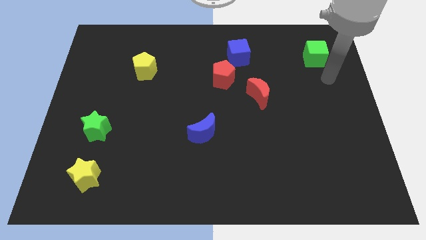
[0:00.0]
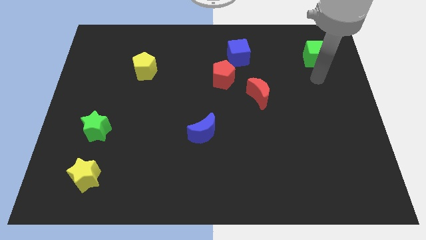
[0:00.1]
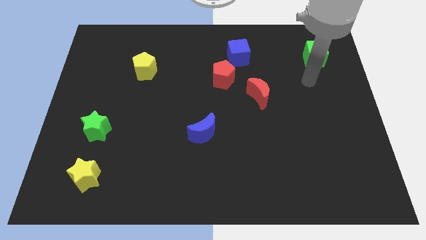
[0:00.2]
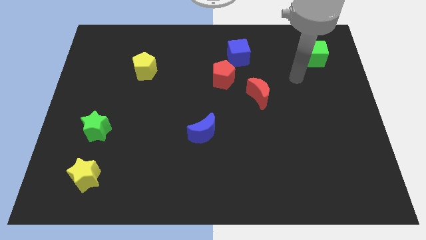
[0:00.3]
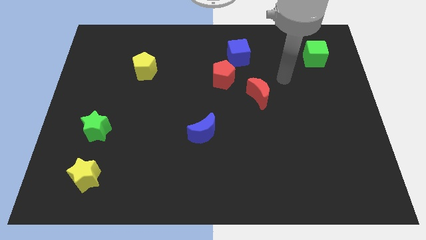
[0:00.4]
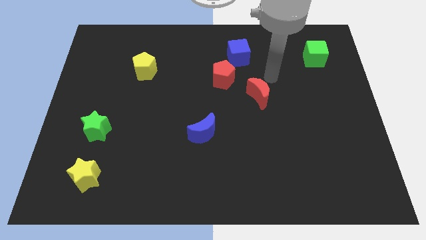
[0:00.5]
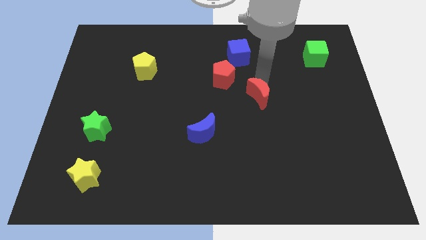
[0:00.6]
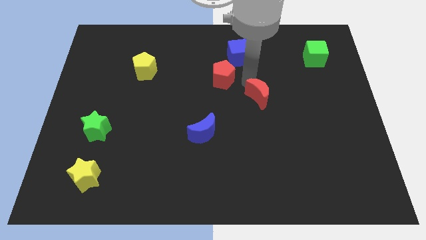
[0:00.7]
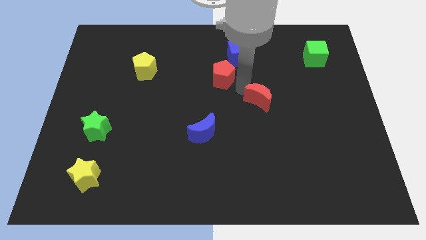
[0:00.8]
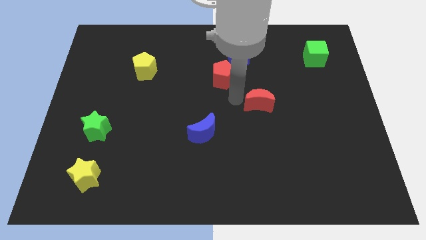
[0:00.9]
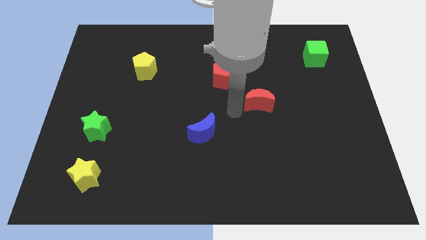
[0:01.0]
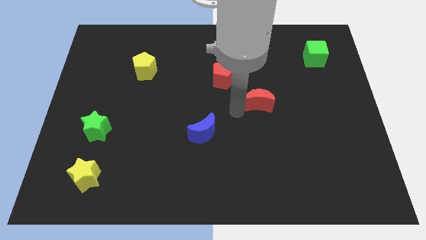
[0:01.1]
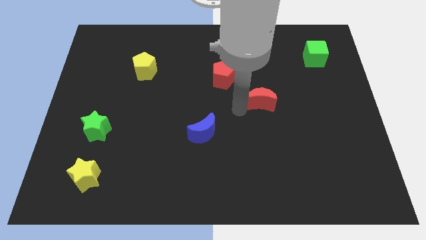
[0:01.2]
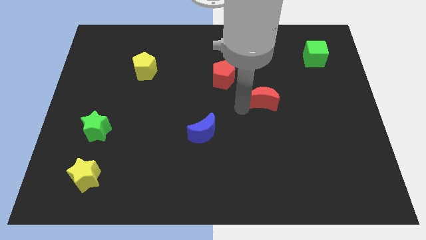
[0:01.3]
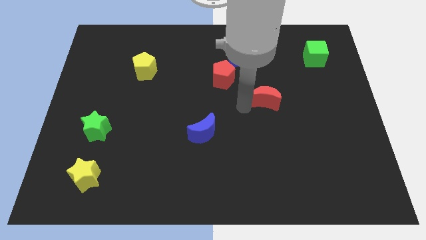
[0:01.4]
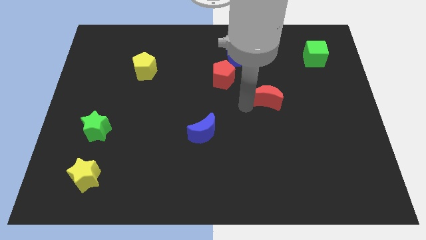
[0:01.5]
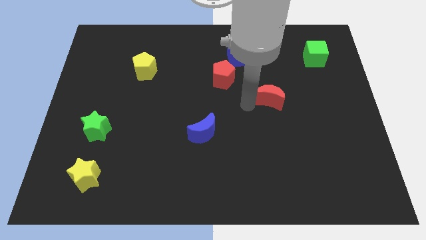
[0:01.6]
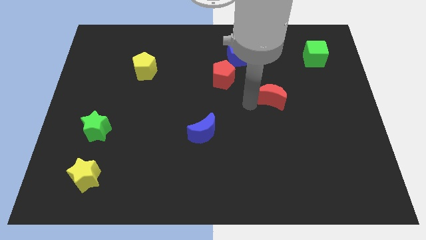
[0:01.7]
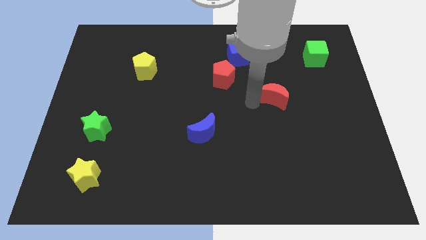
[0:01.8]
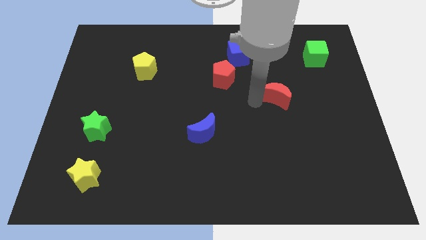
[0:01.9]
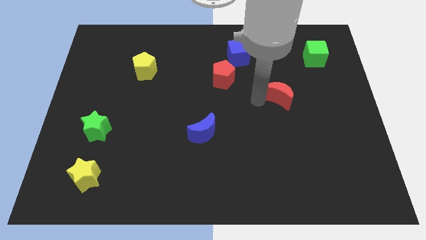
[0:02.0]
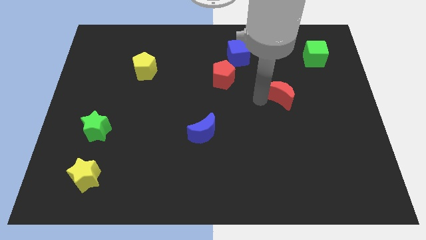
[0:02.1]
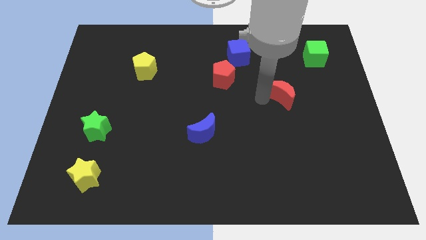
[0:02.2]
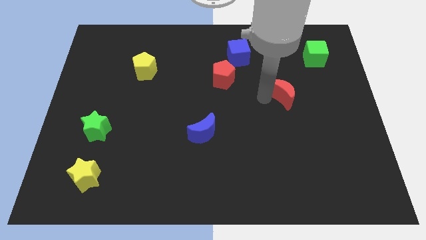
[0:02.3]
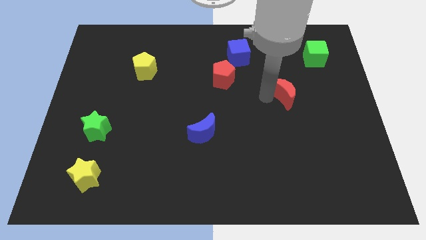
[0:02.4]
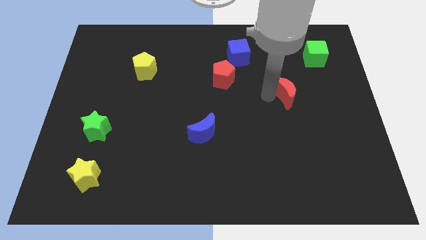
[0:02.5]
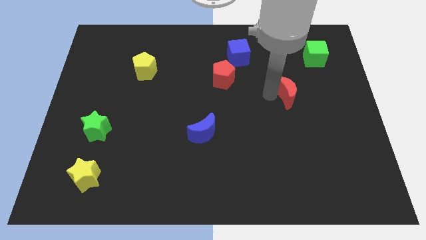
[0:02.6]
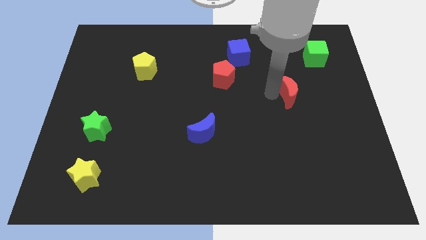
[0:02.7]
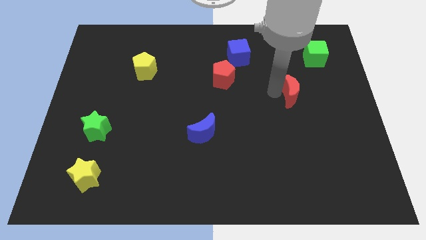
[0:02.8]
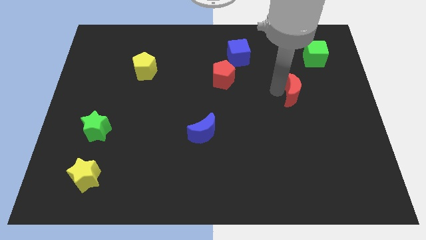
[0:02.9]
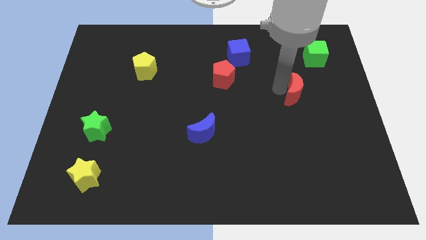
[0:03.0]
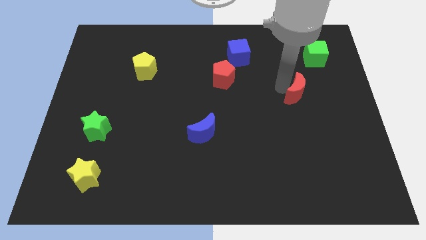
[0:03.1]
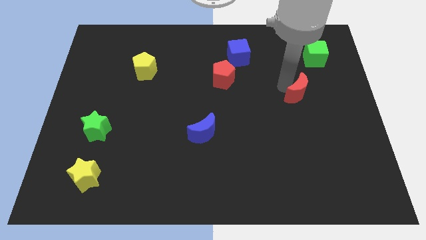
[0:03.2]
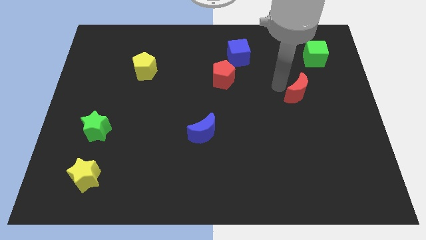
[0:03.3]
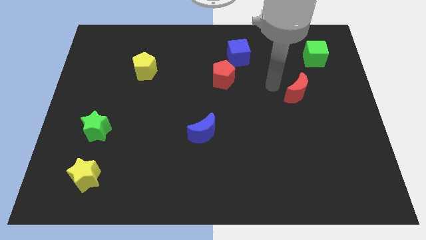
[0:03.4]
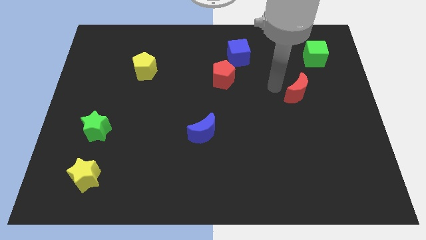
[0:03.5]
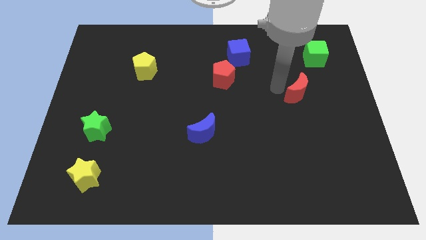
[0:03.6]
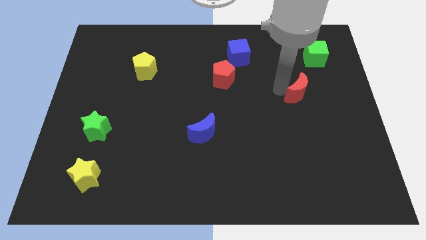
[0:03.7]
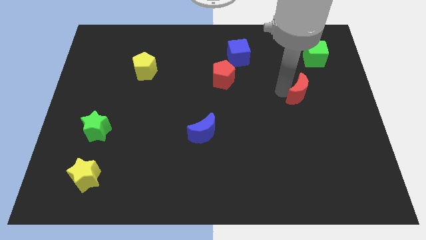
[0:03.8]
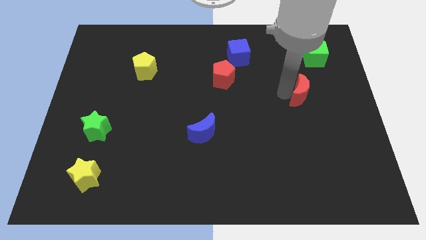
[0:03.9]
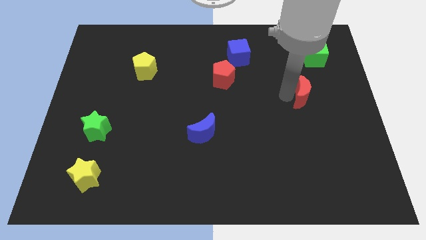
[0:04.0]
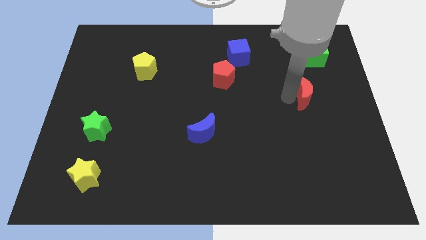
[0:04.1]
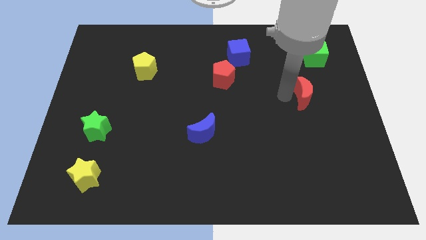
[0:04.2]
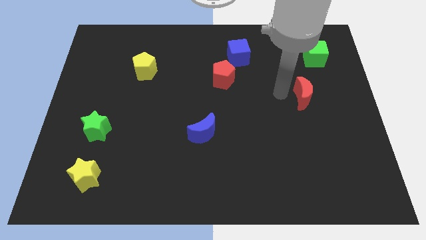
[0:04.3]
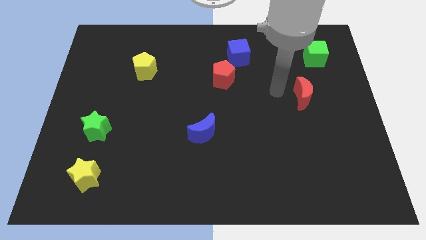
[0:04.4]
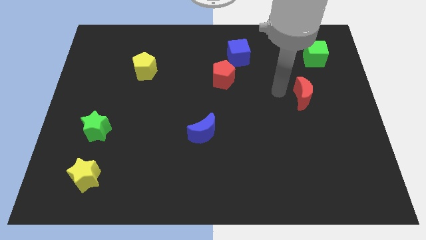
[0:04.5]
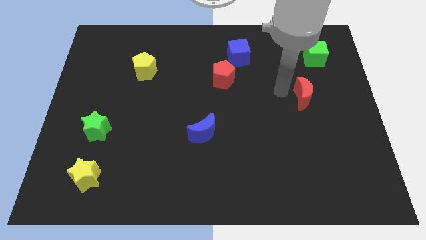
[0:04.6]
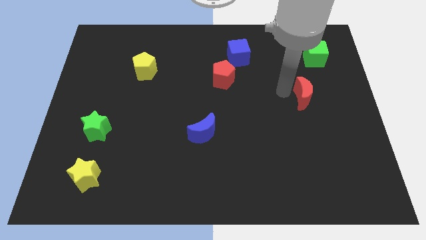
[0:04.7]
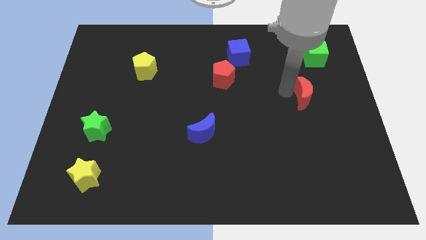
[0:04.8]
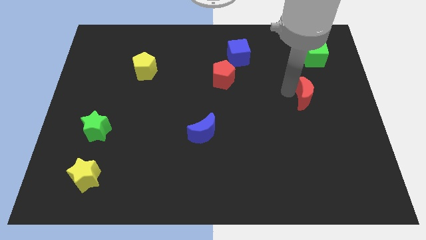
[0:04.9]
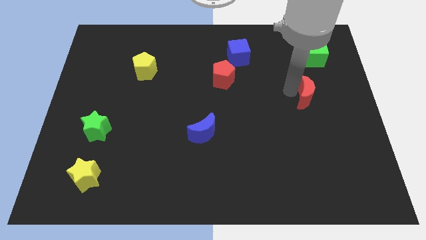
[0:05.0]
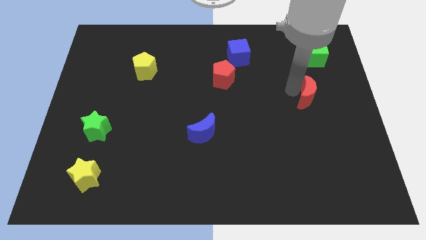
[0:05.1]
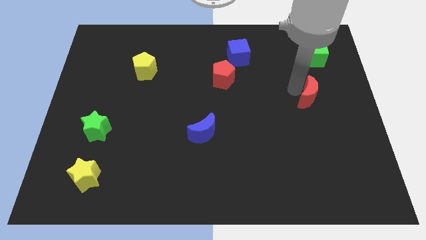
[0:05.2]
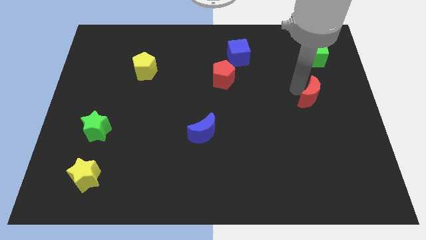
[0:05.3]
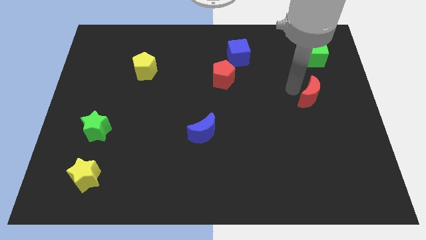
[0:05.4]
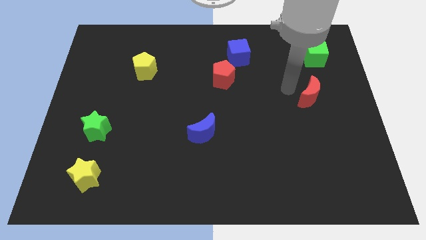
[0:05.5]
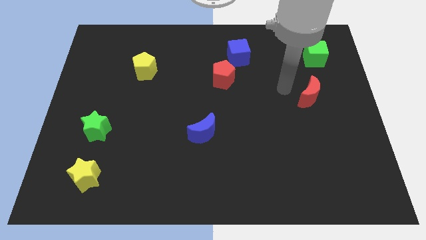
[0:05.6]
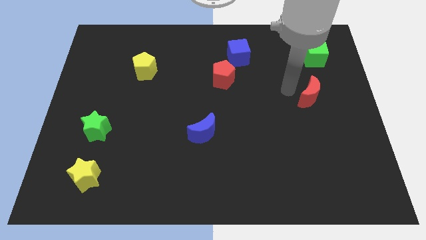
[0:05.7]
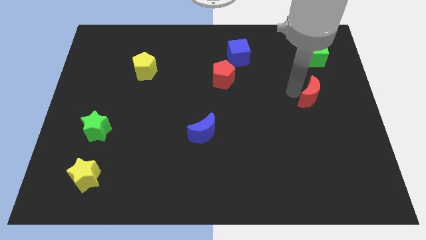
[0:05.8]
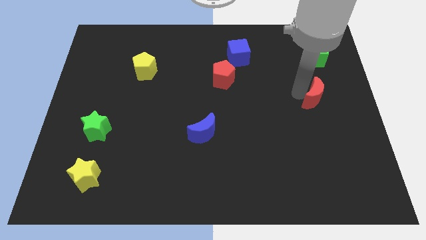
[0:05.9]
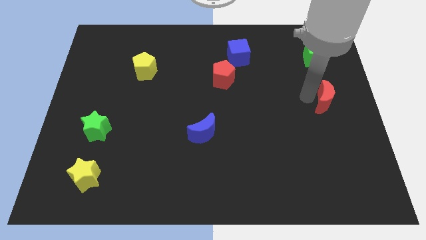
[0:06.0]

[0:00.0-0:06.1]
put the red moon to the right side

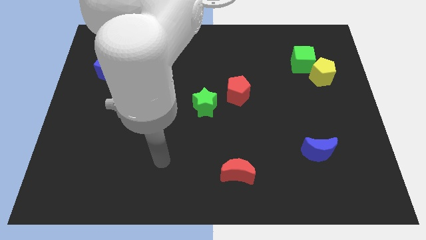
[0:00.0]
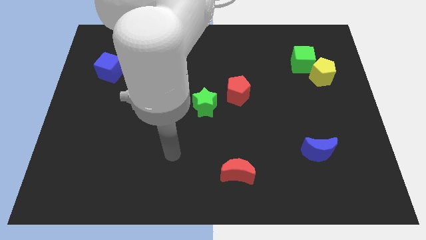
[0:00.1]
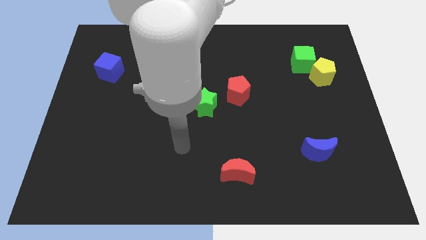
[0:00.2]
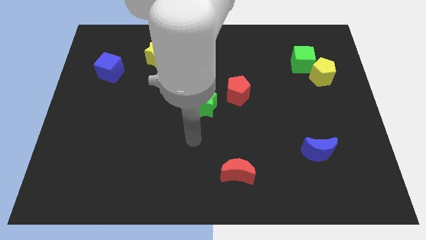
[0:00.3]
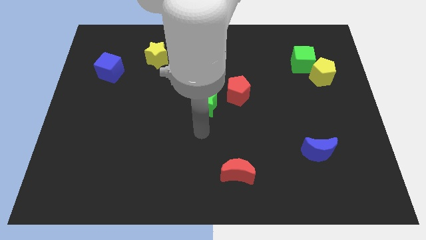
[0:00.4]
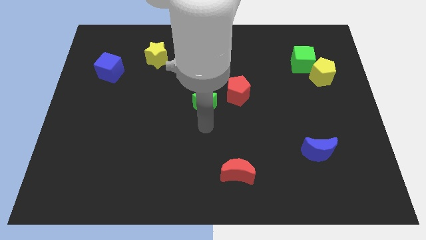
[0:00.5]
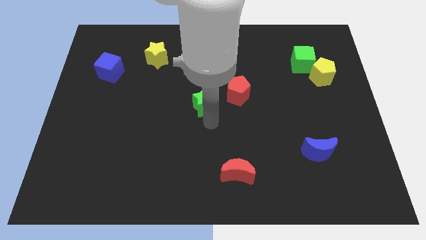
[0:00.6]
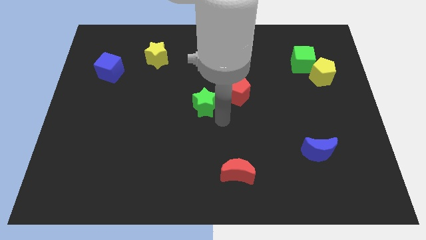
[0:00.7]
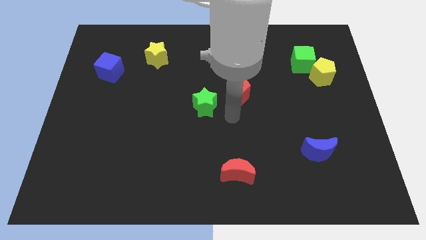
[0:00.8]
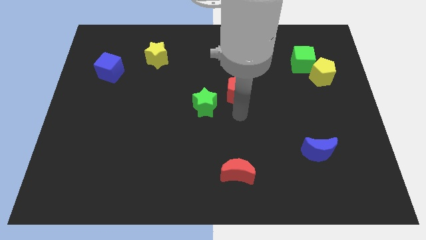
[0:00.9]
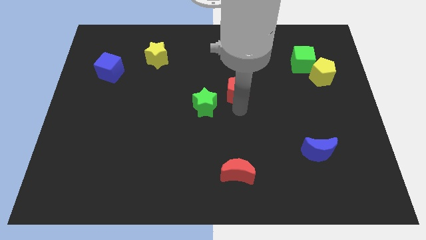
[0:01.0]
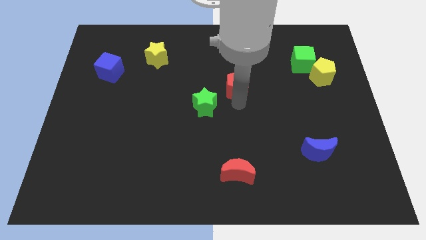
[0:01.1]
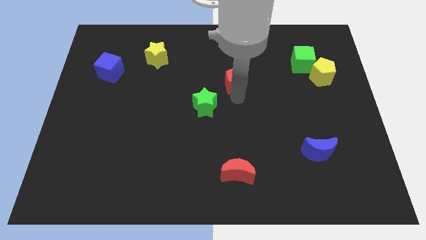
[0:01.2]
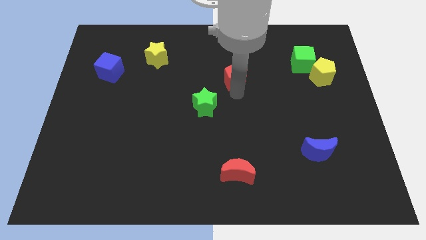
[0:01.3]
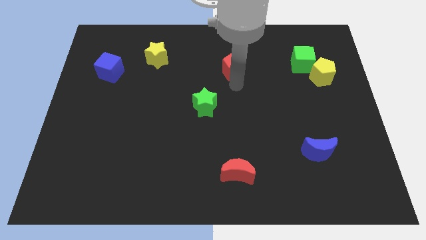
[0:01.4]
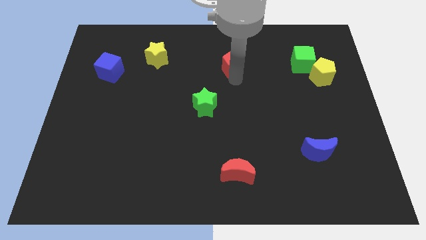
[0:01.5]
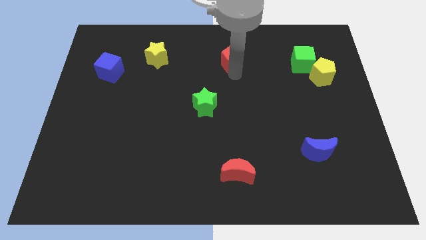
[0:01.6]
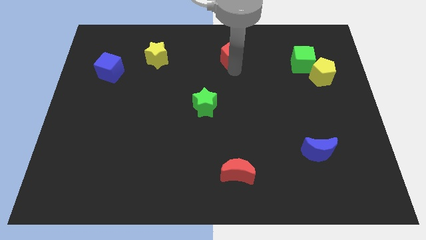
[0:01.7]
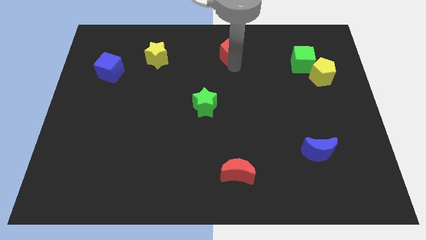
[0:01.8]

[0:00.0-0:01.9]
move the red pentagon to the top
